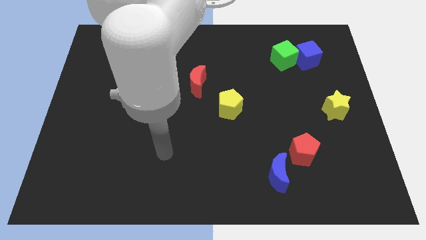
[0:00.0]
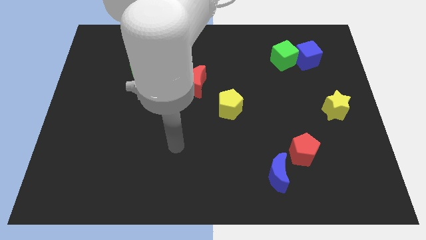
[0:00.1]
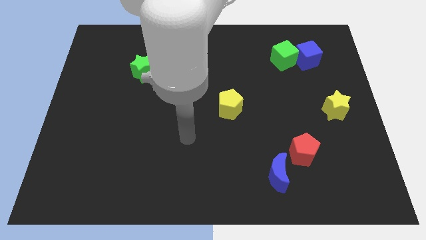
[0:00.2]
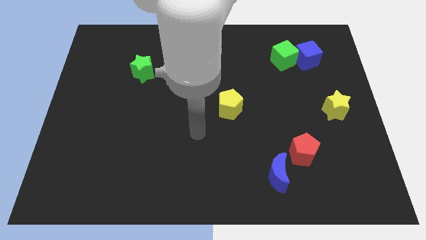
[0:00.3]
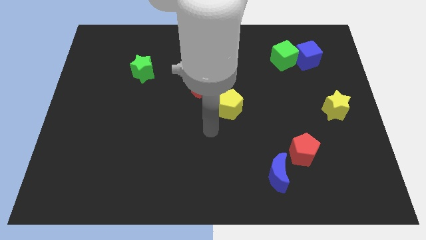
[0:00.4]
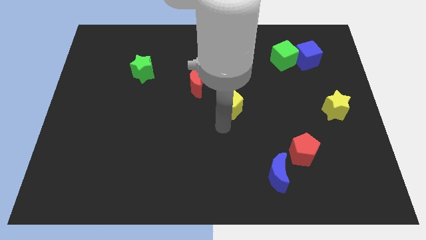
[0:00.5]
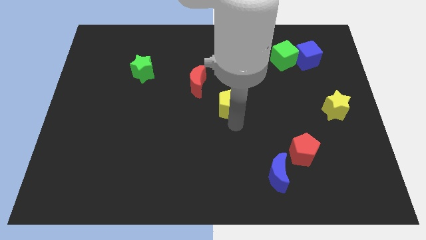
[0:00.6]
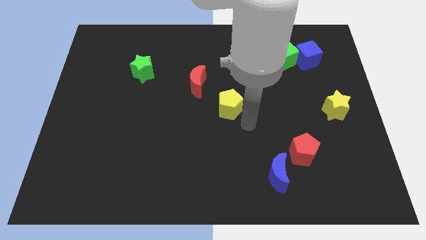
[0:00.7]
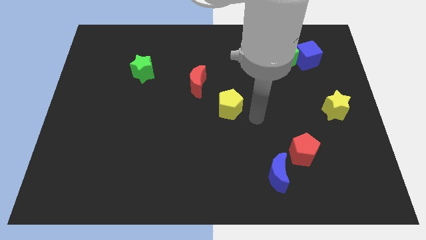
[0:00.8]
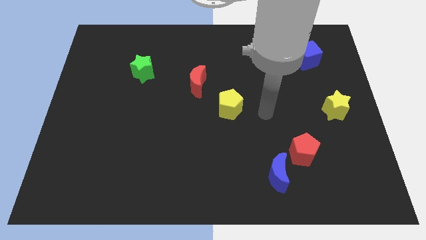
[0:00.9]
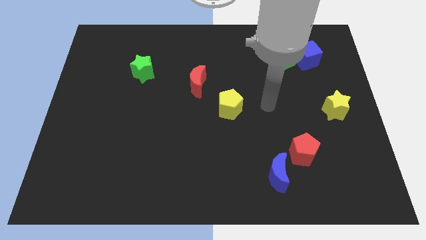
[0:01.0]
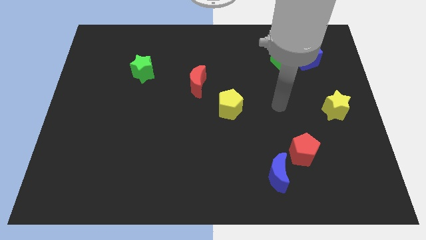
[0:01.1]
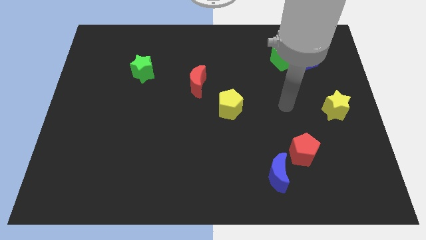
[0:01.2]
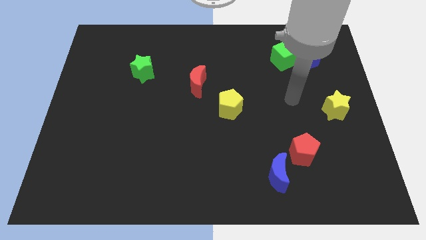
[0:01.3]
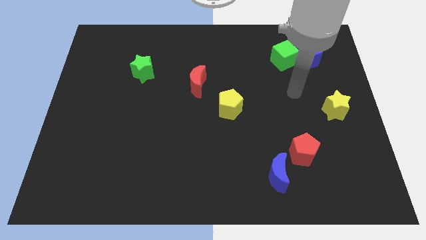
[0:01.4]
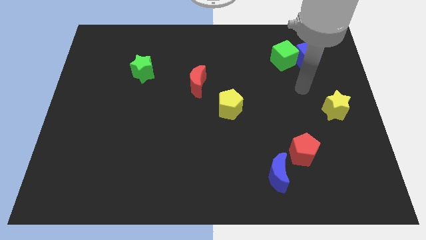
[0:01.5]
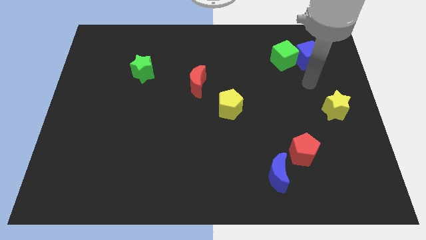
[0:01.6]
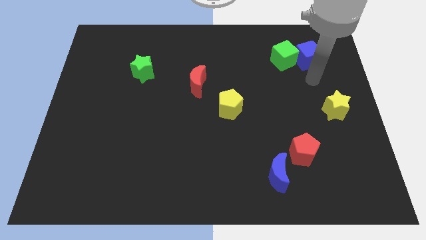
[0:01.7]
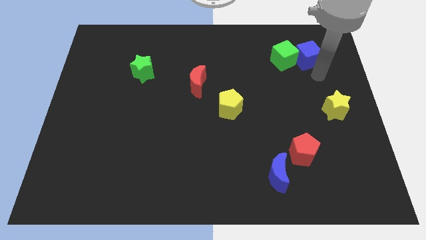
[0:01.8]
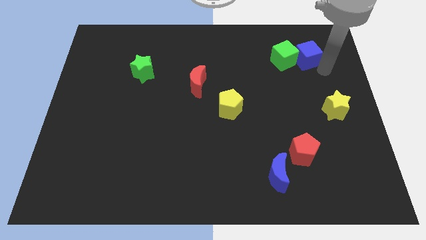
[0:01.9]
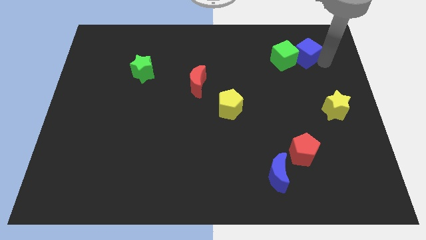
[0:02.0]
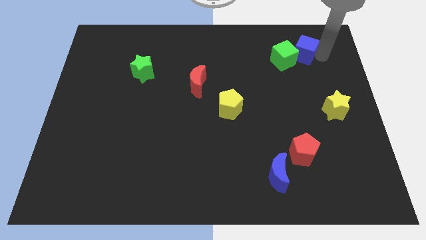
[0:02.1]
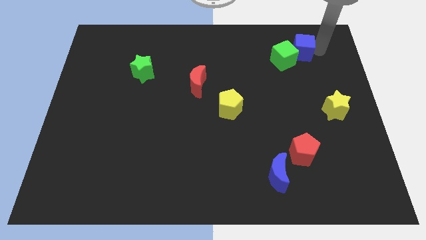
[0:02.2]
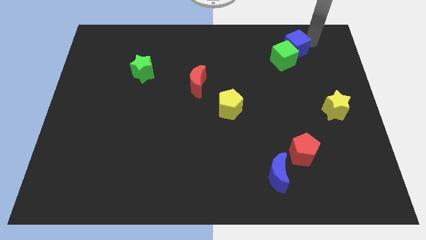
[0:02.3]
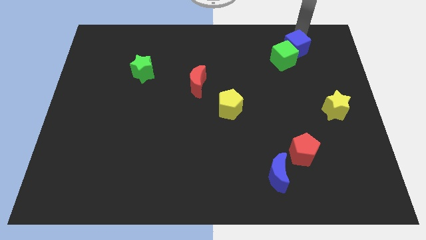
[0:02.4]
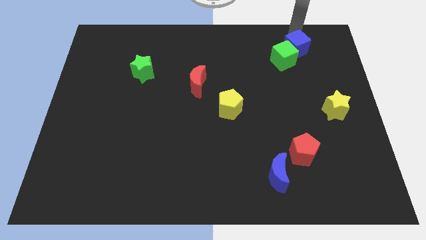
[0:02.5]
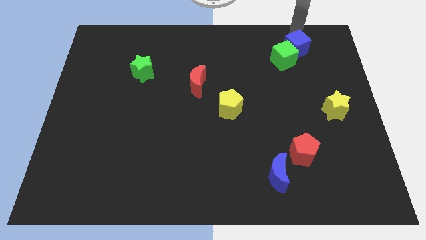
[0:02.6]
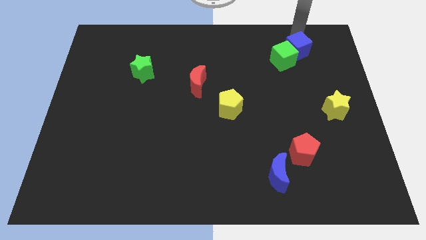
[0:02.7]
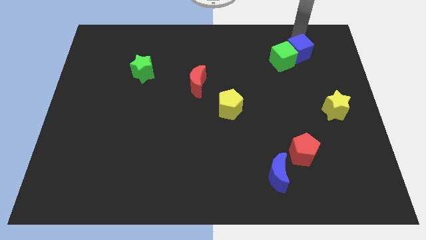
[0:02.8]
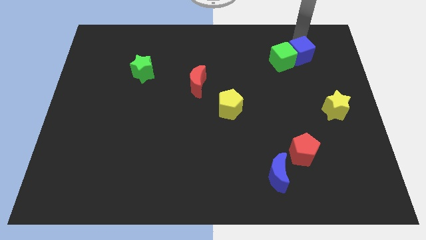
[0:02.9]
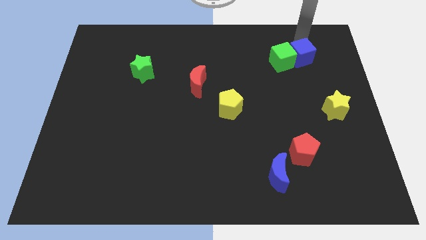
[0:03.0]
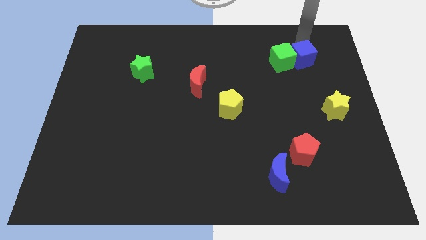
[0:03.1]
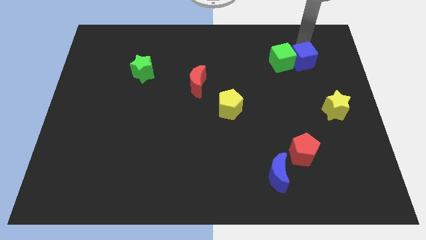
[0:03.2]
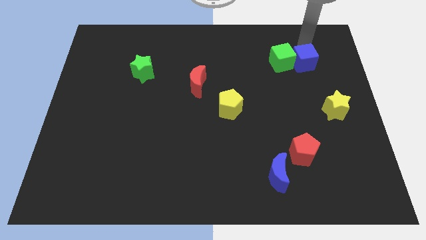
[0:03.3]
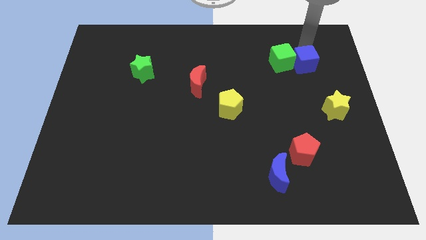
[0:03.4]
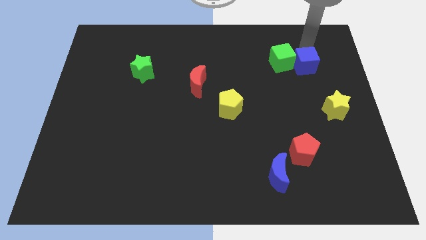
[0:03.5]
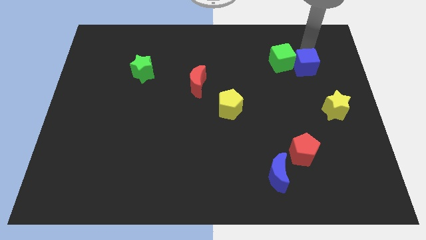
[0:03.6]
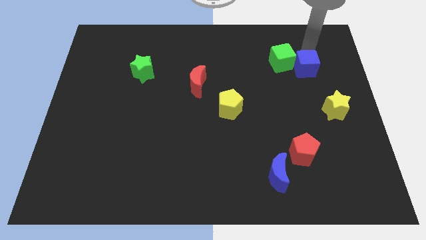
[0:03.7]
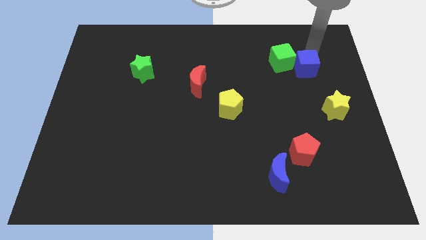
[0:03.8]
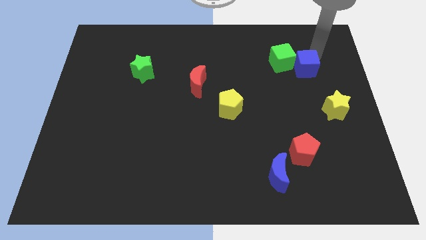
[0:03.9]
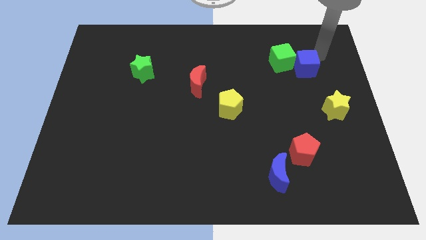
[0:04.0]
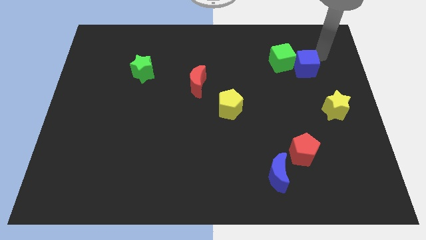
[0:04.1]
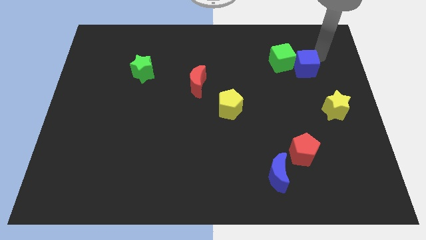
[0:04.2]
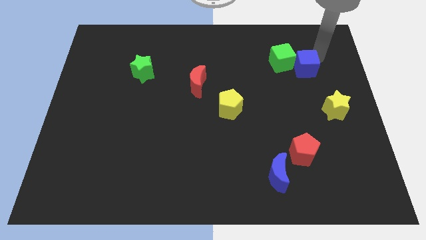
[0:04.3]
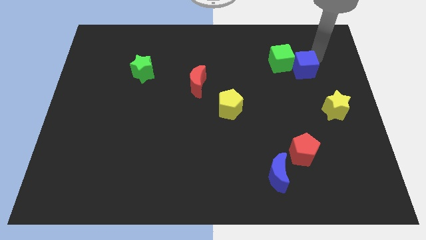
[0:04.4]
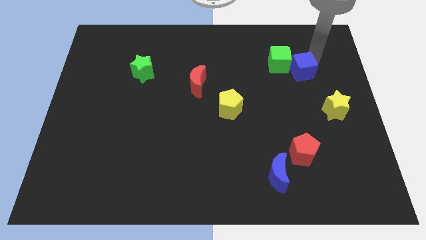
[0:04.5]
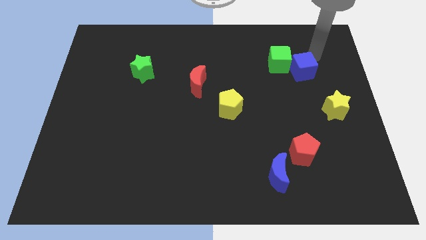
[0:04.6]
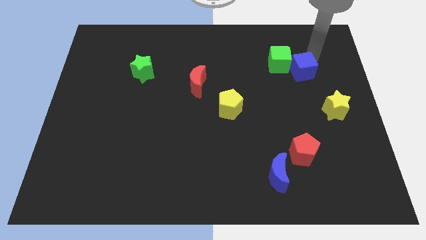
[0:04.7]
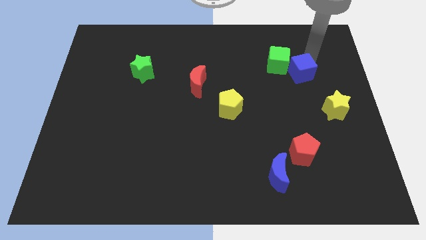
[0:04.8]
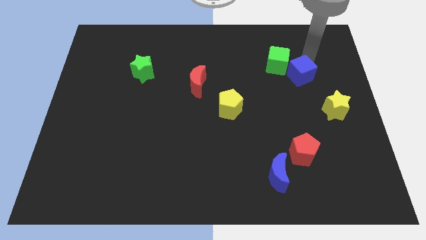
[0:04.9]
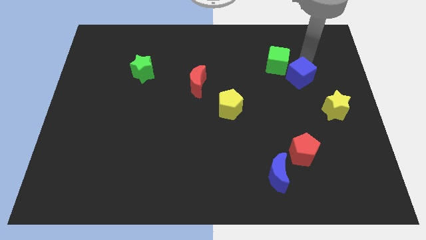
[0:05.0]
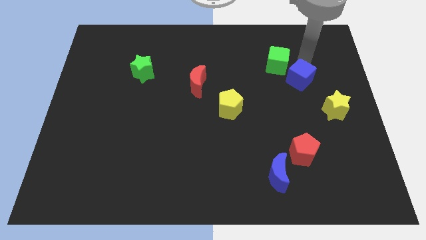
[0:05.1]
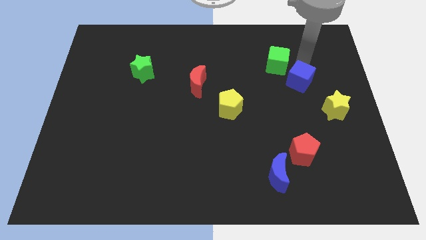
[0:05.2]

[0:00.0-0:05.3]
put the blue cube to the bottom side of the green cube
